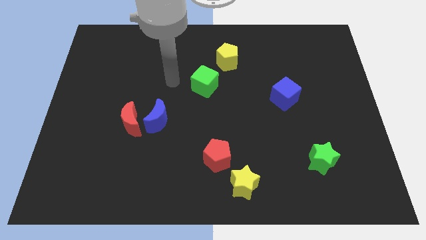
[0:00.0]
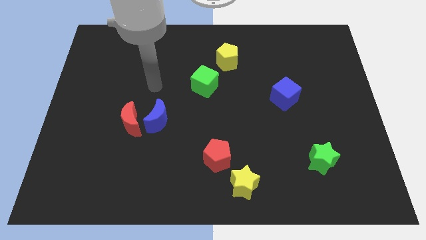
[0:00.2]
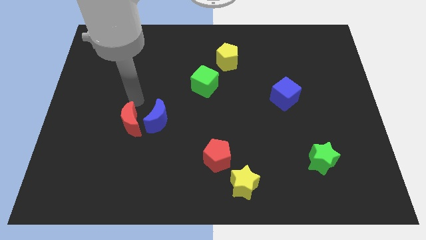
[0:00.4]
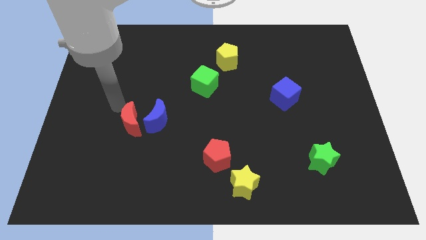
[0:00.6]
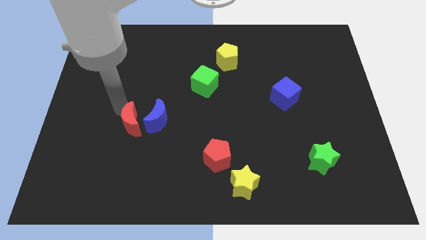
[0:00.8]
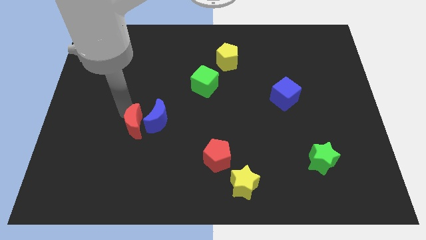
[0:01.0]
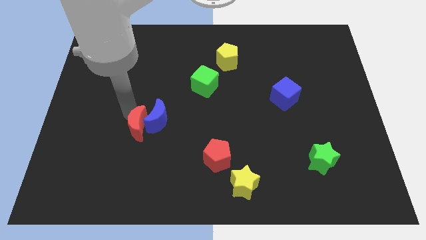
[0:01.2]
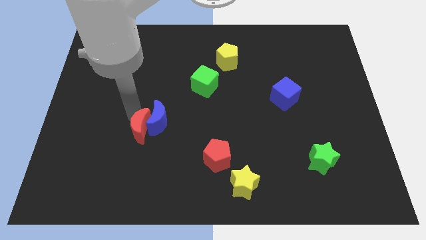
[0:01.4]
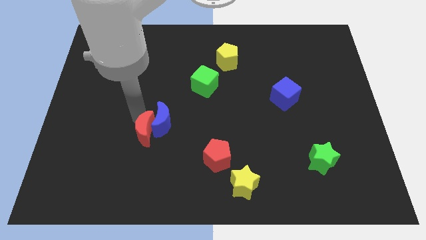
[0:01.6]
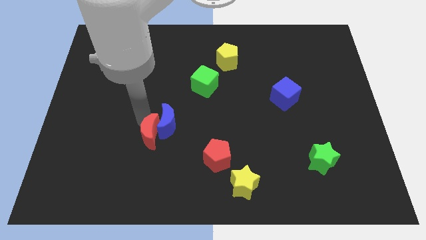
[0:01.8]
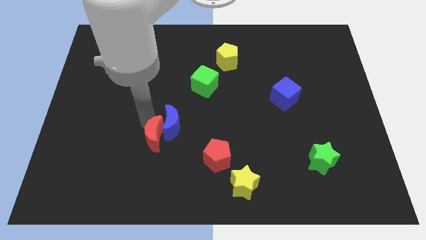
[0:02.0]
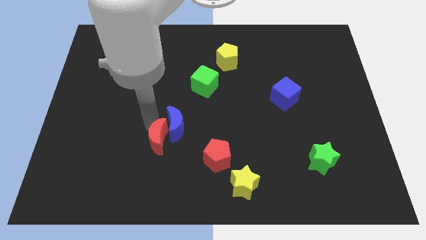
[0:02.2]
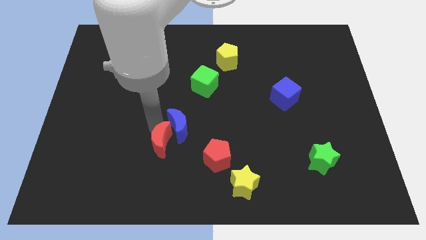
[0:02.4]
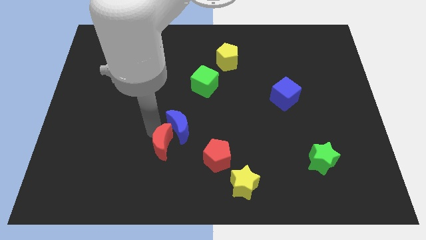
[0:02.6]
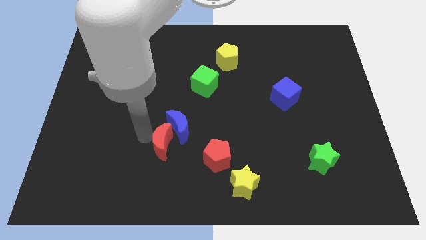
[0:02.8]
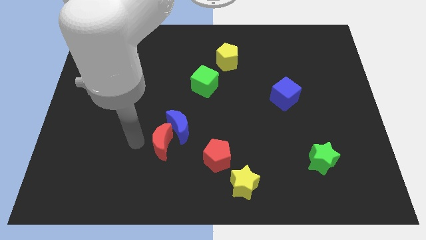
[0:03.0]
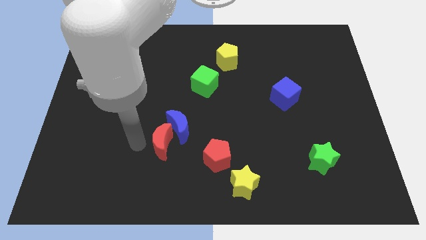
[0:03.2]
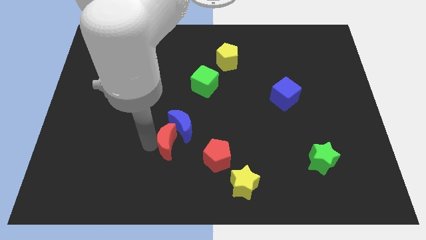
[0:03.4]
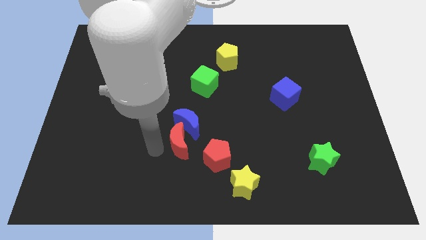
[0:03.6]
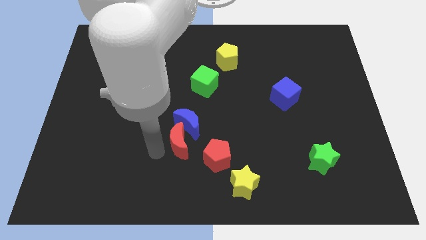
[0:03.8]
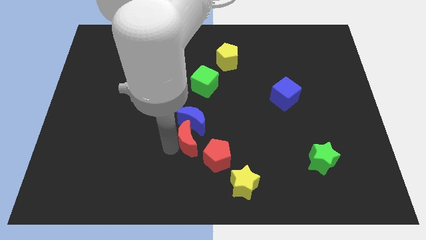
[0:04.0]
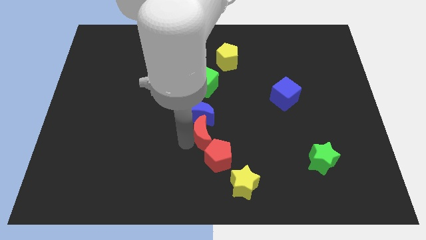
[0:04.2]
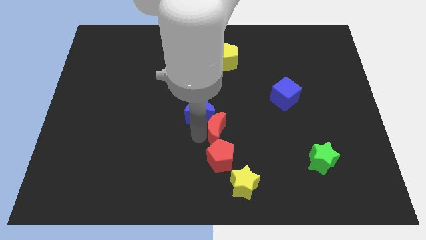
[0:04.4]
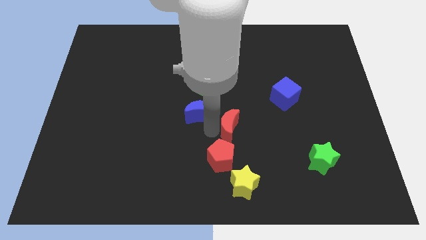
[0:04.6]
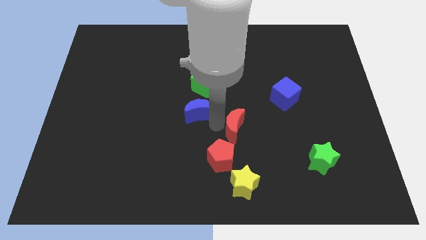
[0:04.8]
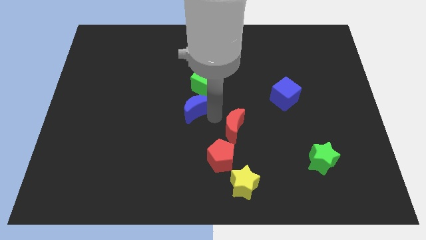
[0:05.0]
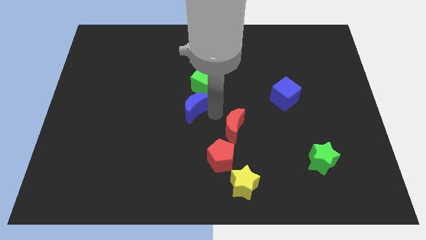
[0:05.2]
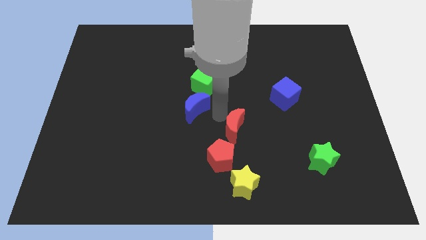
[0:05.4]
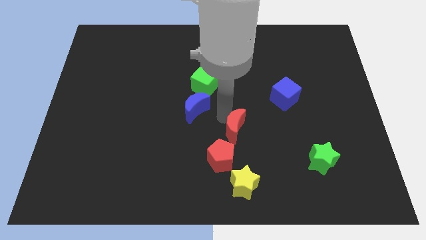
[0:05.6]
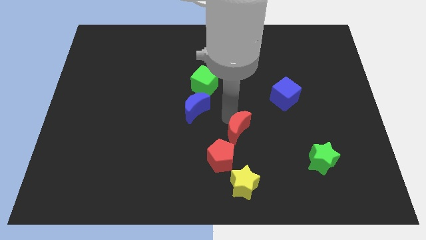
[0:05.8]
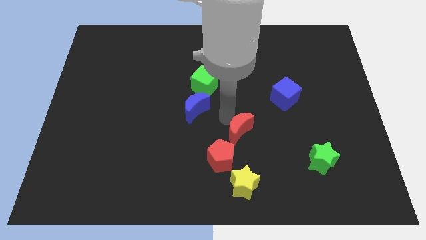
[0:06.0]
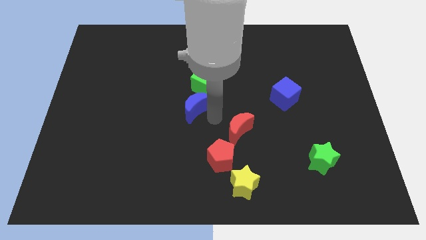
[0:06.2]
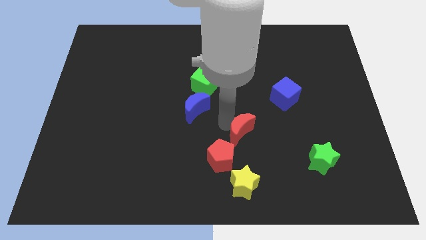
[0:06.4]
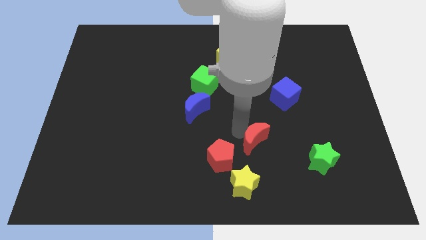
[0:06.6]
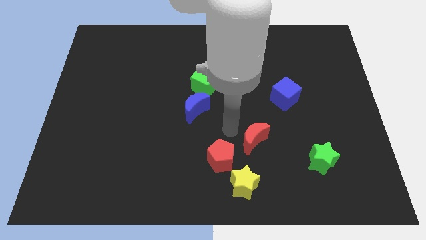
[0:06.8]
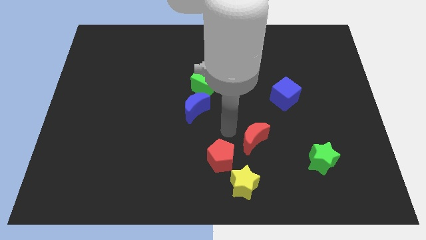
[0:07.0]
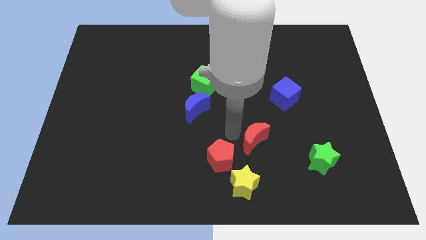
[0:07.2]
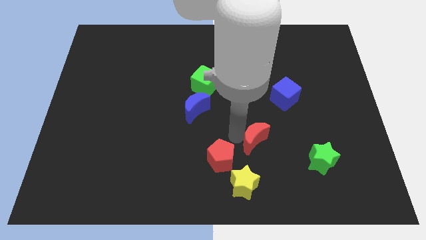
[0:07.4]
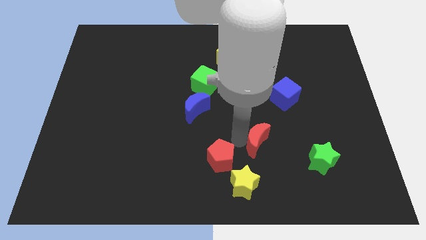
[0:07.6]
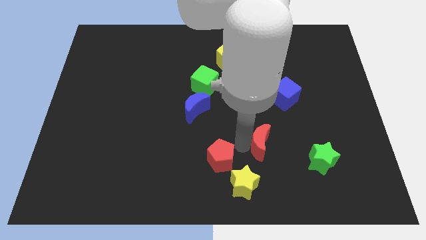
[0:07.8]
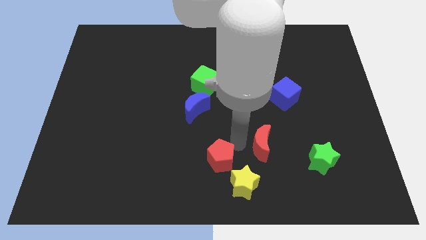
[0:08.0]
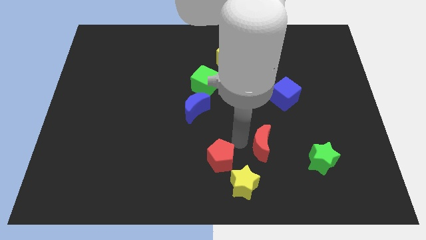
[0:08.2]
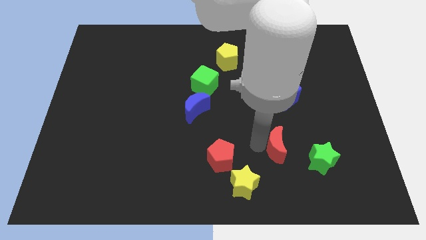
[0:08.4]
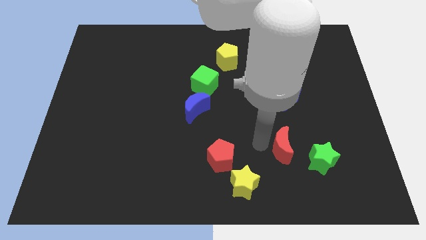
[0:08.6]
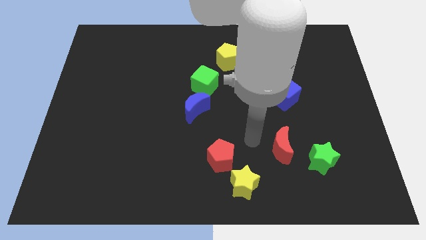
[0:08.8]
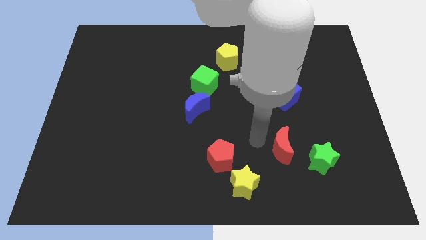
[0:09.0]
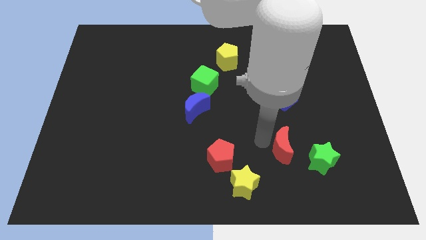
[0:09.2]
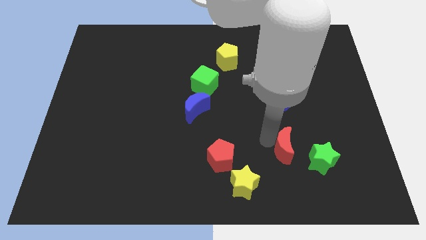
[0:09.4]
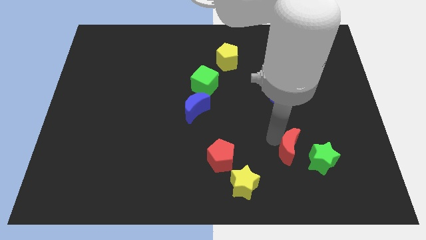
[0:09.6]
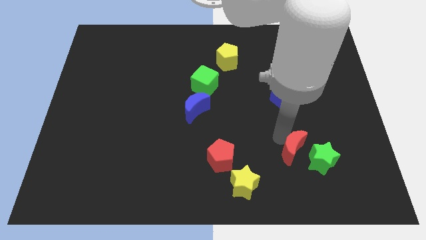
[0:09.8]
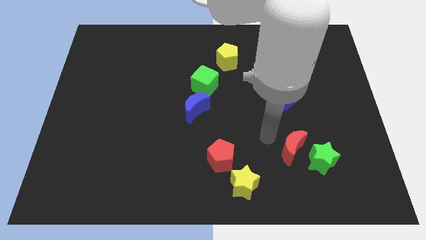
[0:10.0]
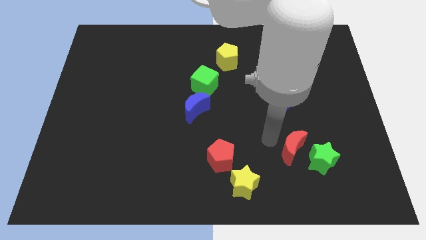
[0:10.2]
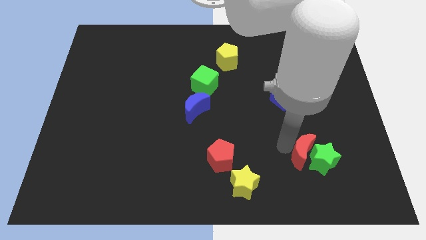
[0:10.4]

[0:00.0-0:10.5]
slide the red moon towards the green star

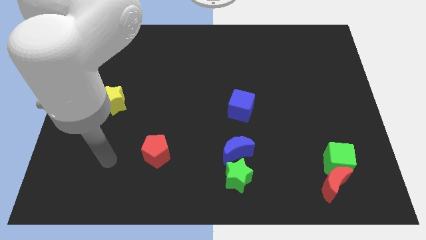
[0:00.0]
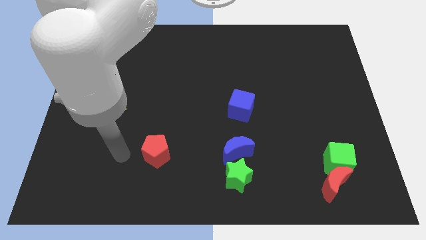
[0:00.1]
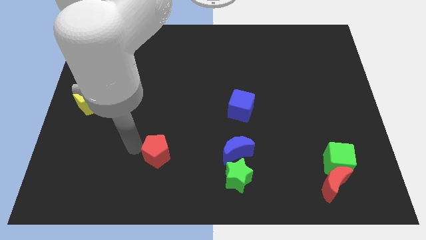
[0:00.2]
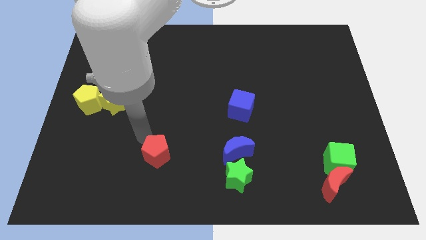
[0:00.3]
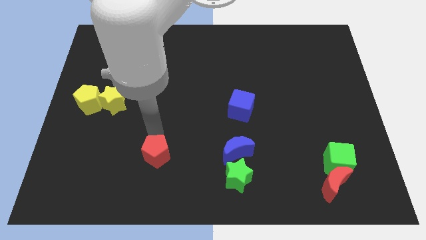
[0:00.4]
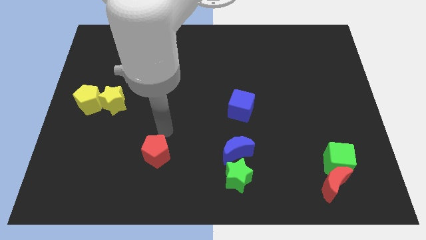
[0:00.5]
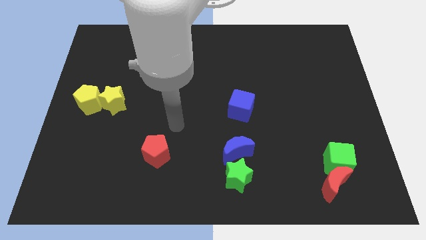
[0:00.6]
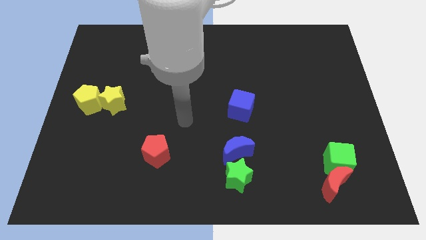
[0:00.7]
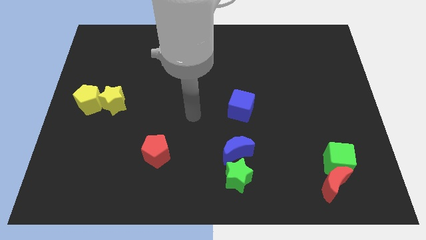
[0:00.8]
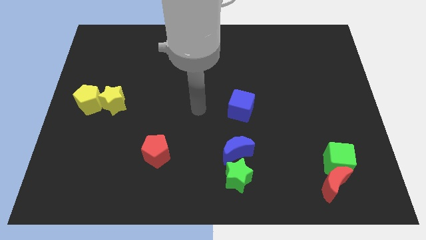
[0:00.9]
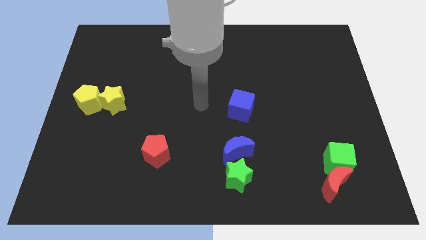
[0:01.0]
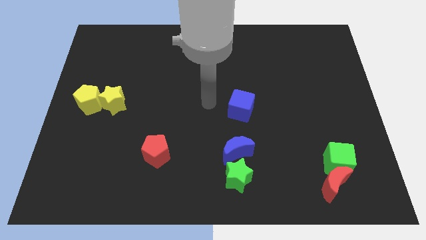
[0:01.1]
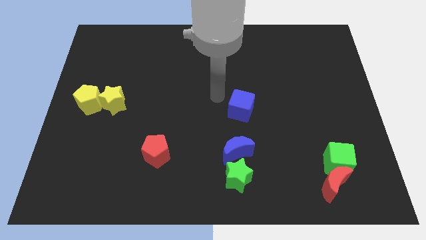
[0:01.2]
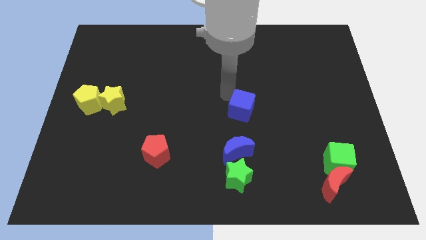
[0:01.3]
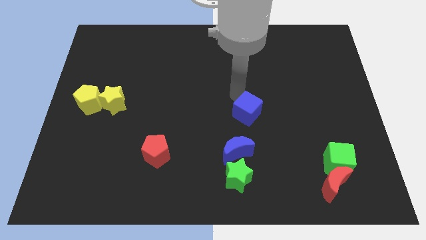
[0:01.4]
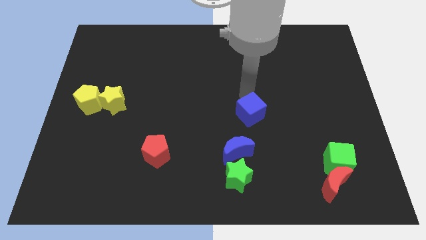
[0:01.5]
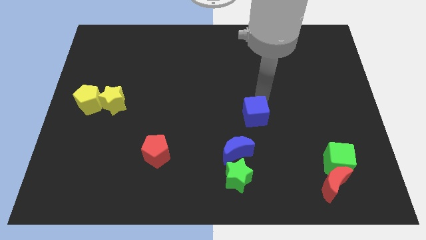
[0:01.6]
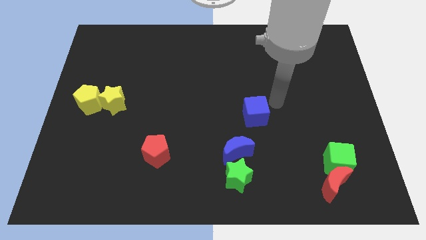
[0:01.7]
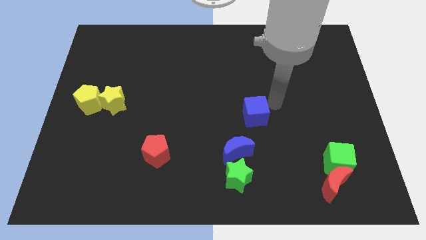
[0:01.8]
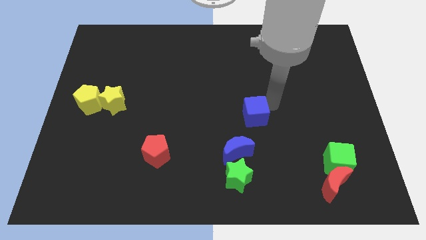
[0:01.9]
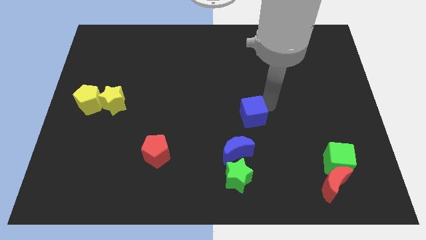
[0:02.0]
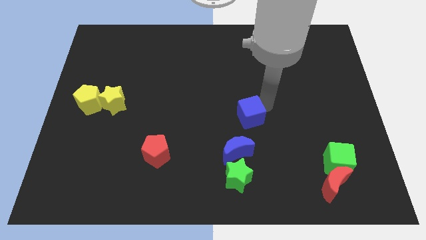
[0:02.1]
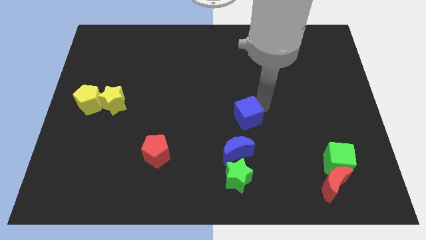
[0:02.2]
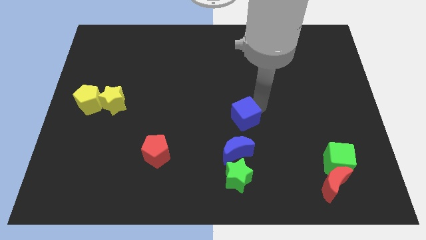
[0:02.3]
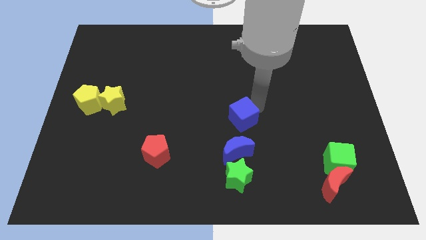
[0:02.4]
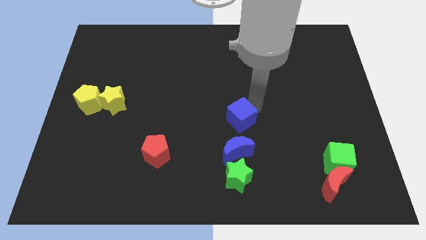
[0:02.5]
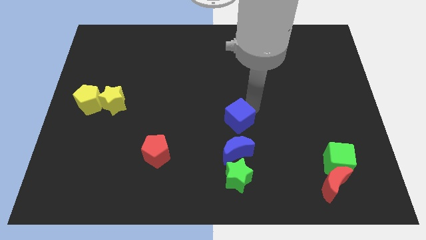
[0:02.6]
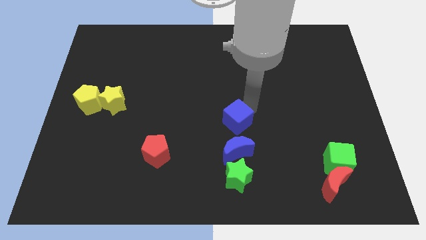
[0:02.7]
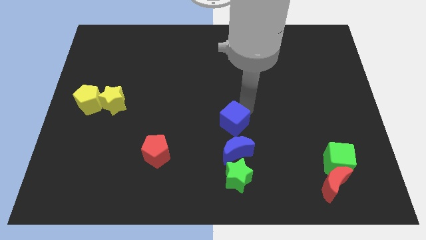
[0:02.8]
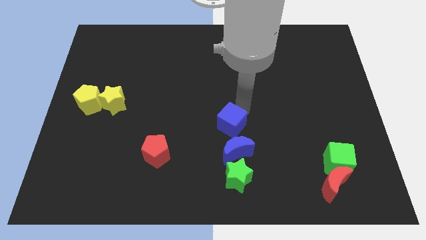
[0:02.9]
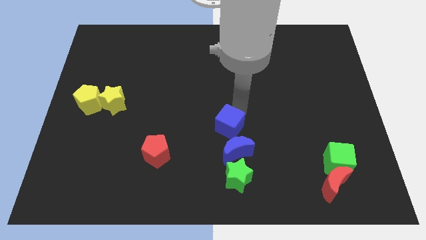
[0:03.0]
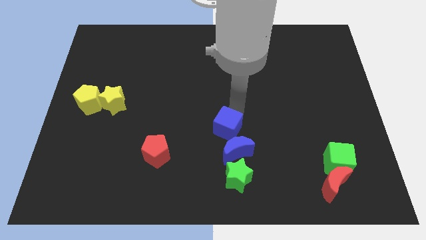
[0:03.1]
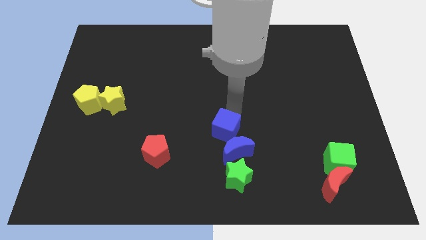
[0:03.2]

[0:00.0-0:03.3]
slide the blue cube close to the blue moon
